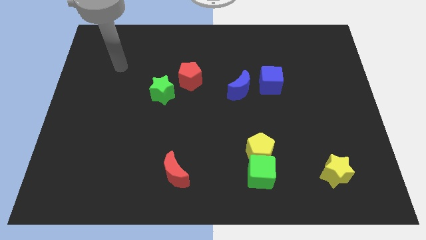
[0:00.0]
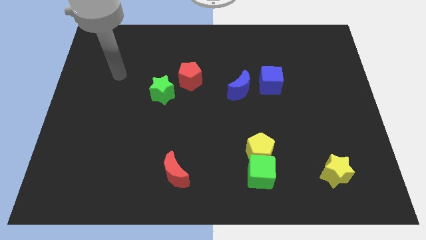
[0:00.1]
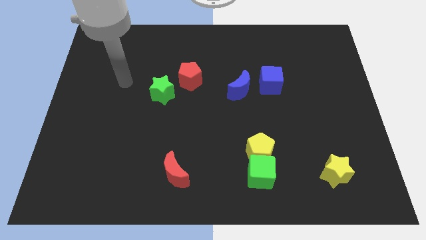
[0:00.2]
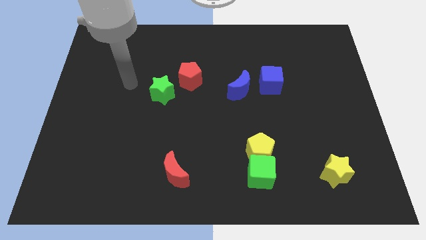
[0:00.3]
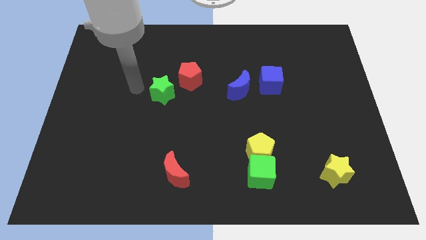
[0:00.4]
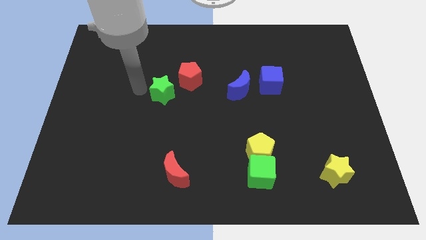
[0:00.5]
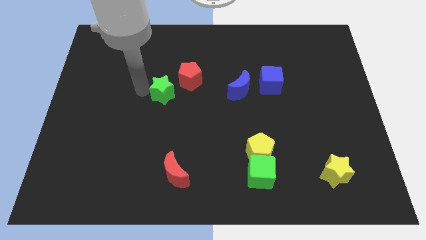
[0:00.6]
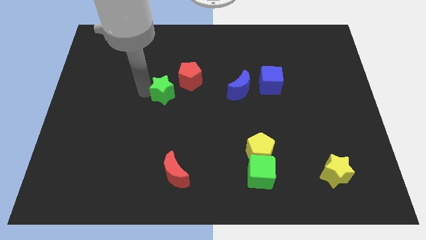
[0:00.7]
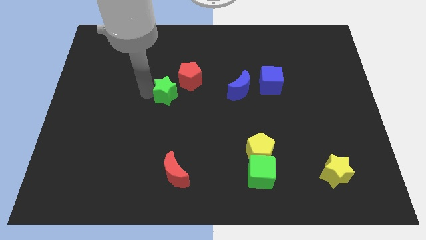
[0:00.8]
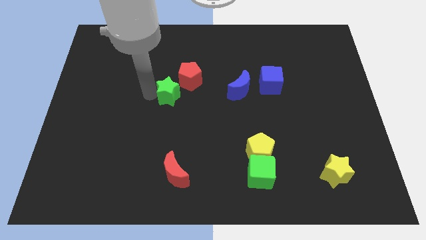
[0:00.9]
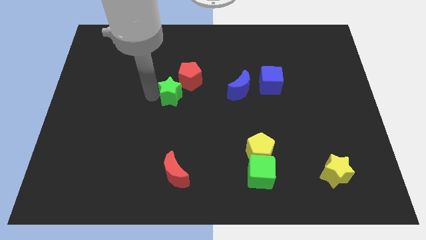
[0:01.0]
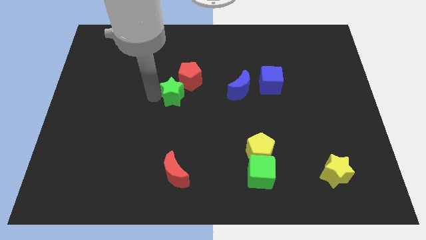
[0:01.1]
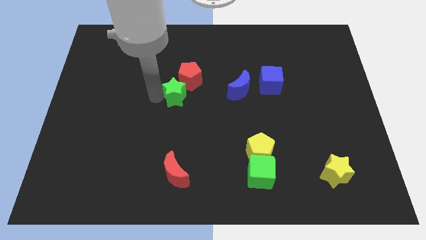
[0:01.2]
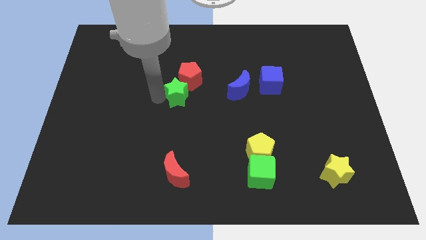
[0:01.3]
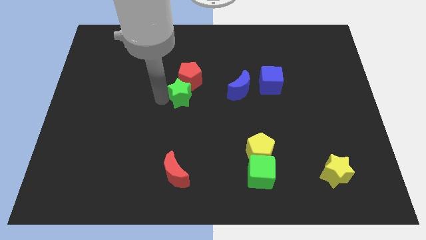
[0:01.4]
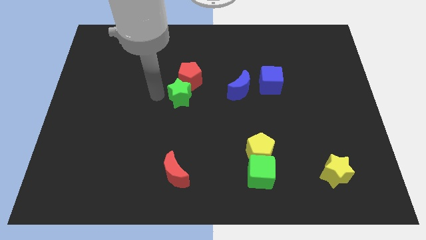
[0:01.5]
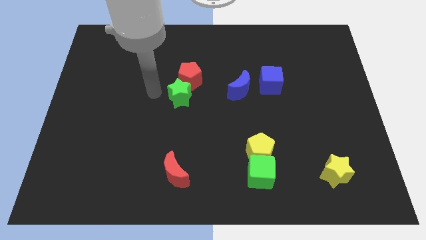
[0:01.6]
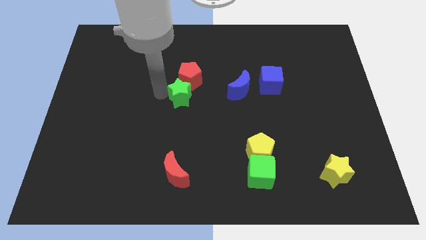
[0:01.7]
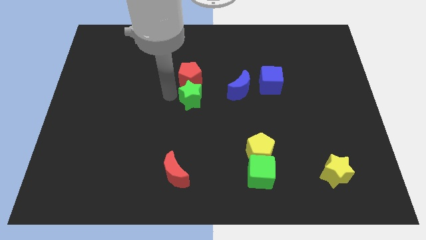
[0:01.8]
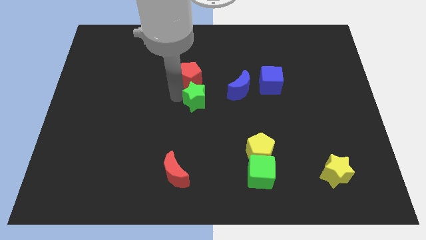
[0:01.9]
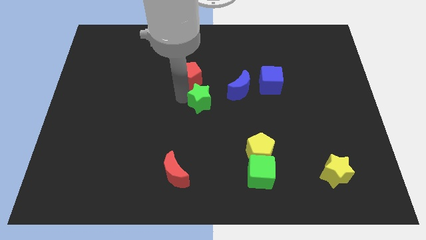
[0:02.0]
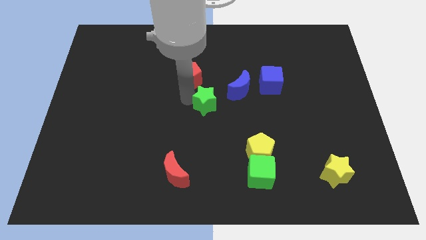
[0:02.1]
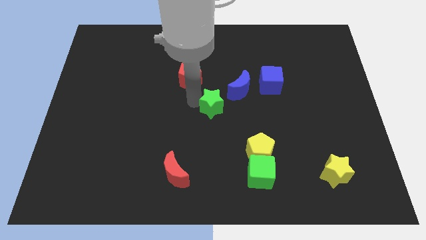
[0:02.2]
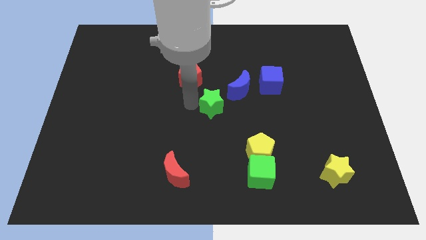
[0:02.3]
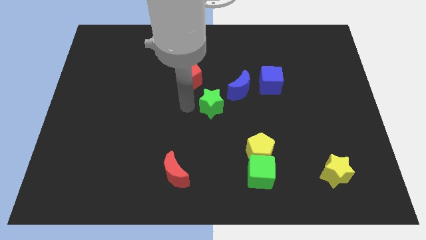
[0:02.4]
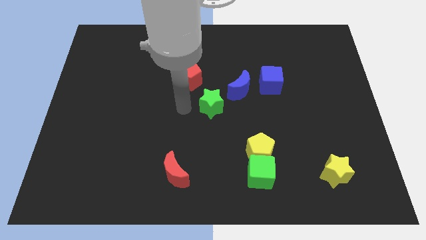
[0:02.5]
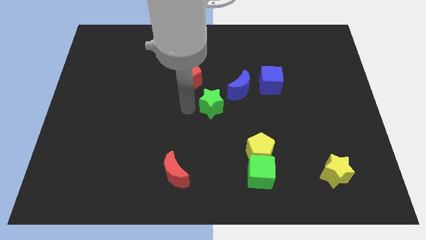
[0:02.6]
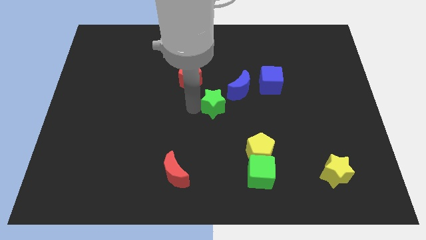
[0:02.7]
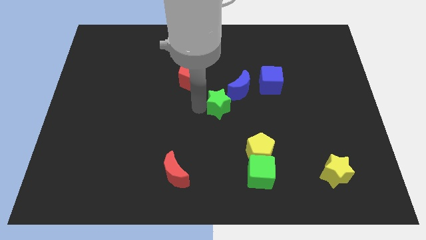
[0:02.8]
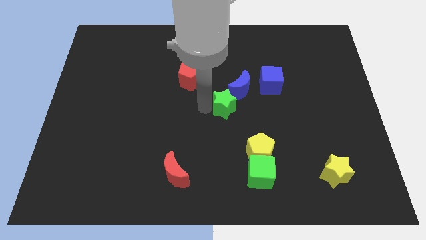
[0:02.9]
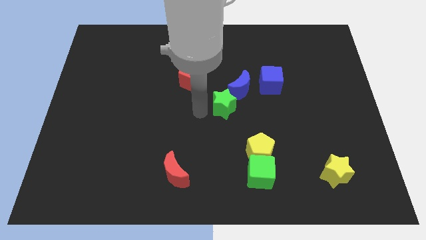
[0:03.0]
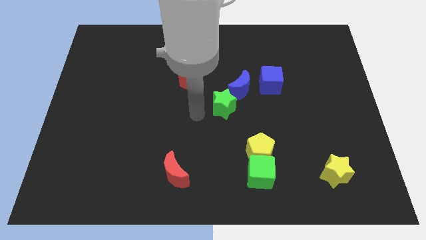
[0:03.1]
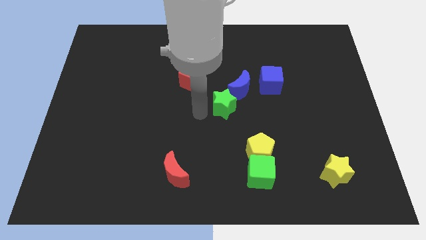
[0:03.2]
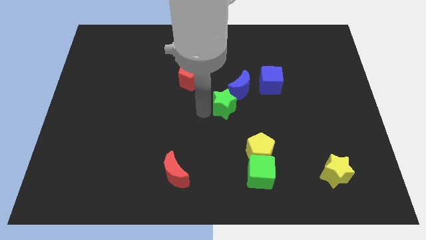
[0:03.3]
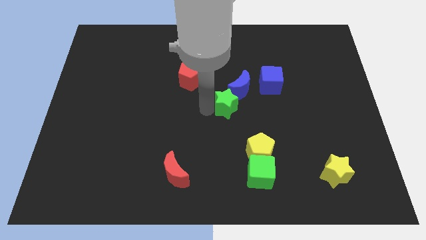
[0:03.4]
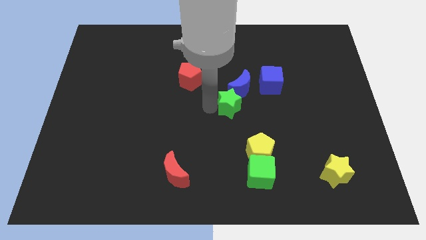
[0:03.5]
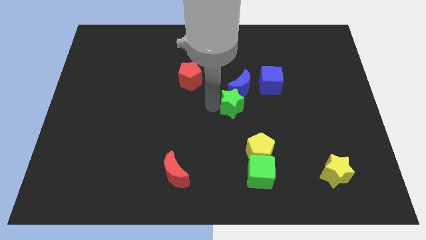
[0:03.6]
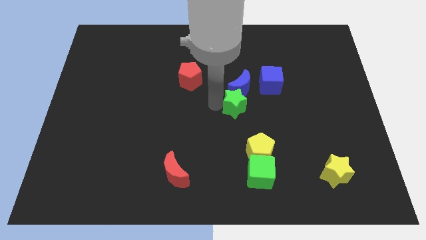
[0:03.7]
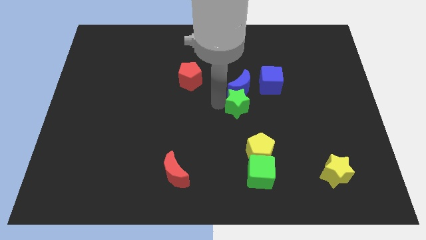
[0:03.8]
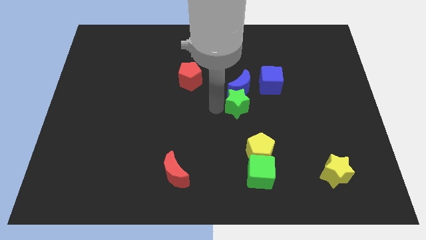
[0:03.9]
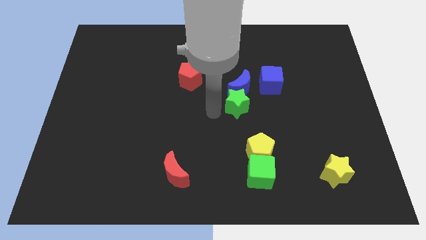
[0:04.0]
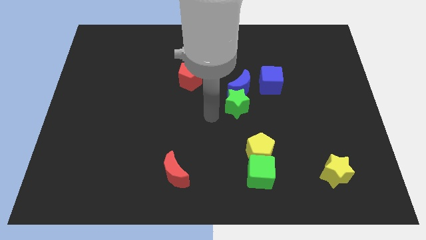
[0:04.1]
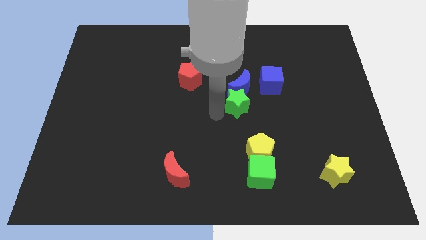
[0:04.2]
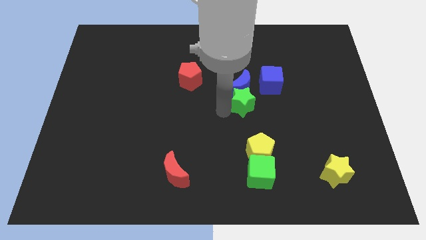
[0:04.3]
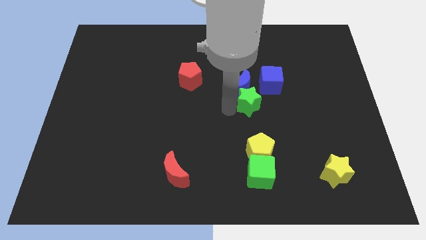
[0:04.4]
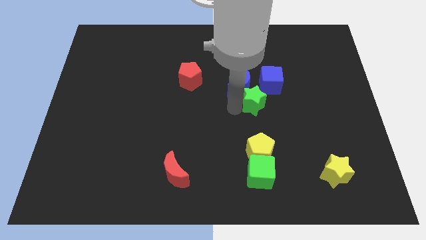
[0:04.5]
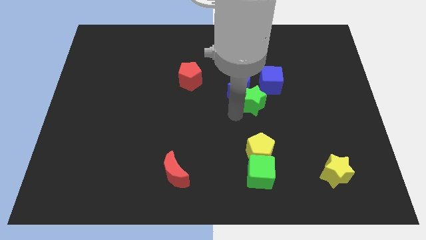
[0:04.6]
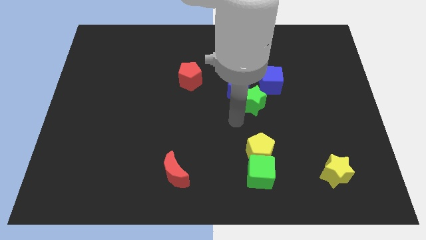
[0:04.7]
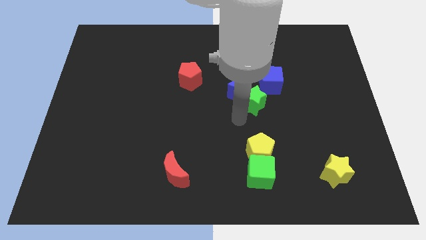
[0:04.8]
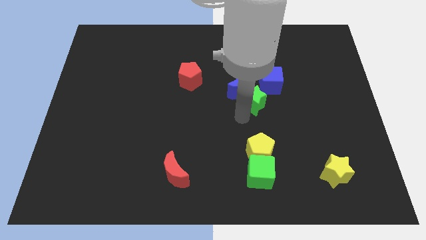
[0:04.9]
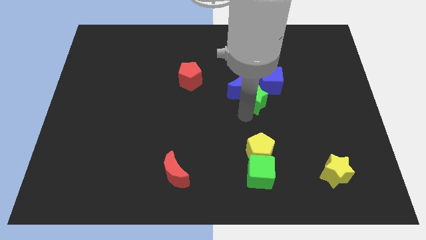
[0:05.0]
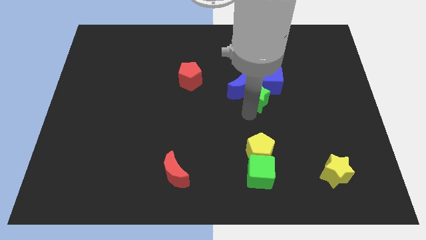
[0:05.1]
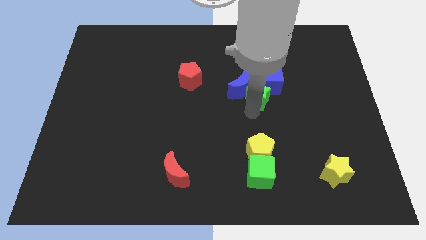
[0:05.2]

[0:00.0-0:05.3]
push the green star close to the blue cube

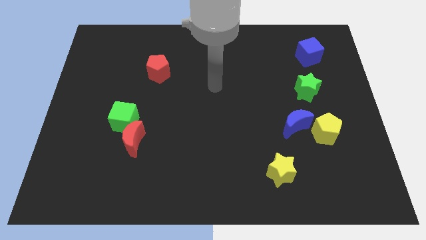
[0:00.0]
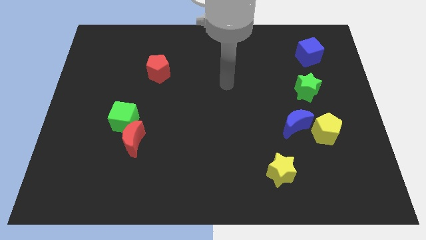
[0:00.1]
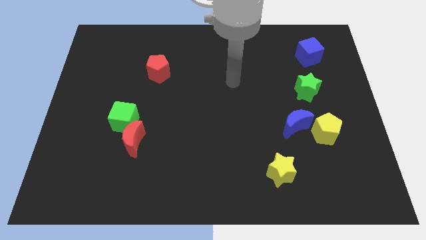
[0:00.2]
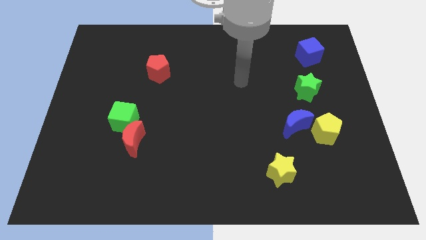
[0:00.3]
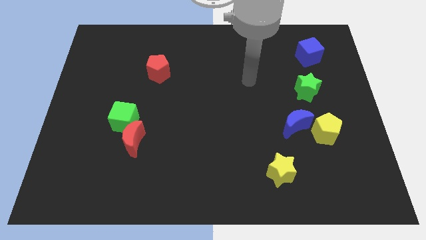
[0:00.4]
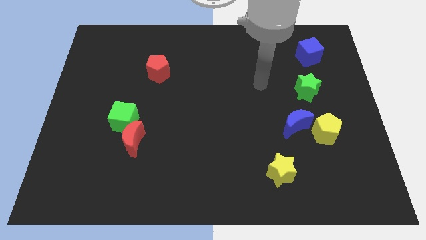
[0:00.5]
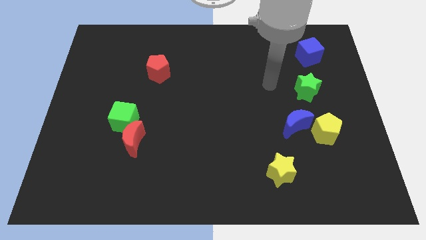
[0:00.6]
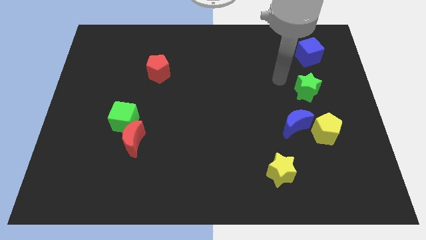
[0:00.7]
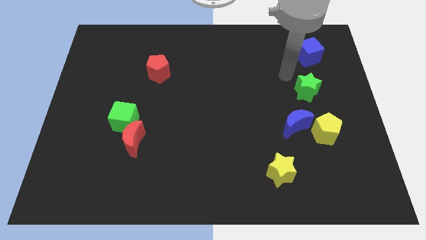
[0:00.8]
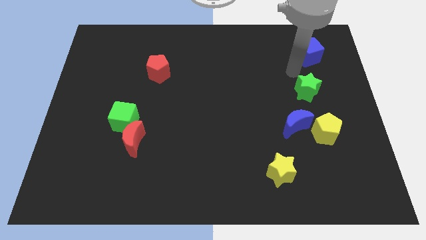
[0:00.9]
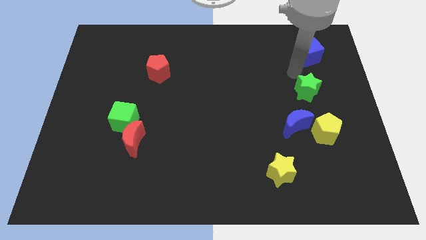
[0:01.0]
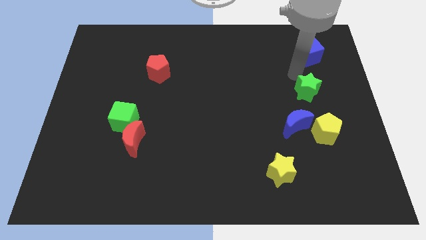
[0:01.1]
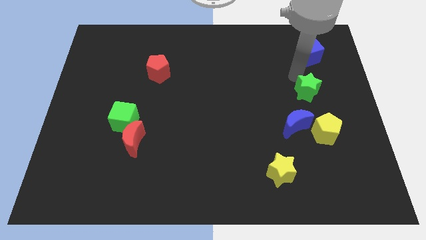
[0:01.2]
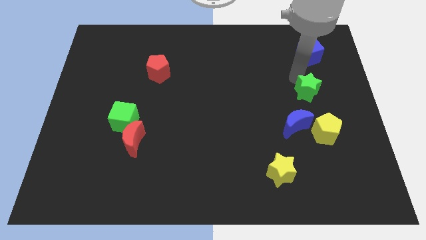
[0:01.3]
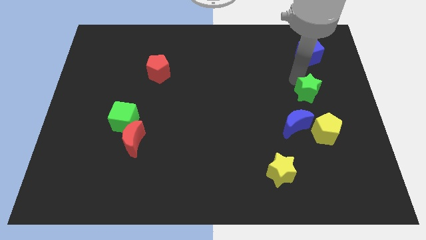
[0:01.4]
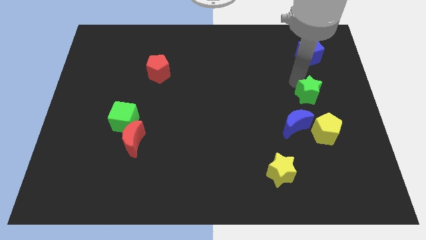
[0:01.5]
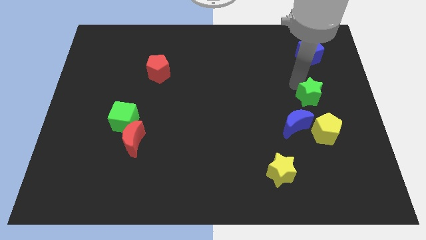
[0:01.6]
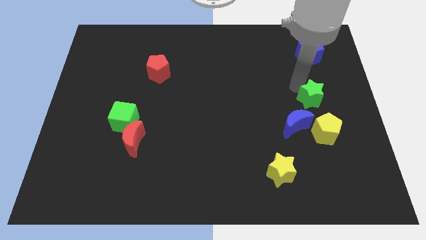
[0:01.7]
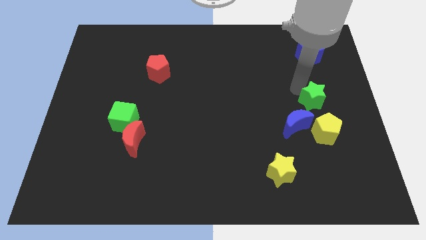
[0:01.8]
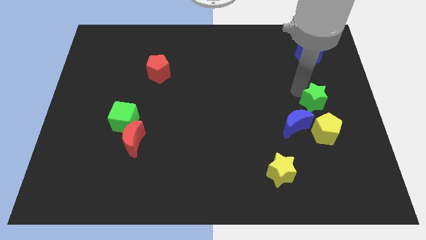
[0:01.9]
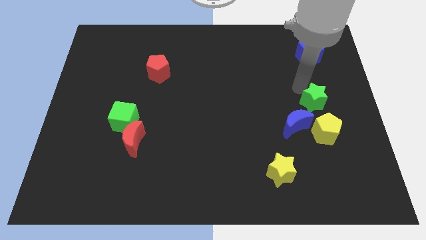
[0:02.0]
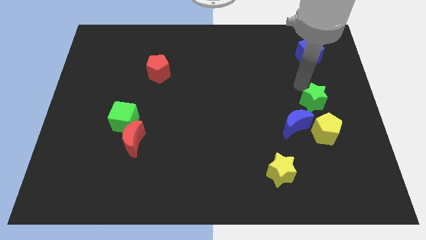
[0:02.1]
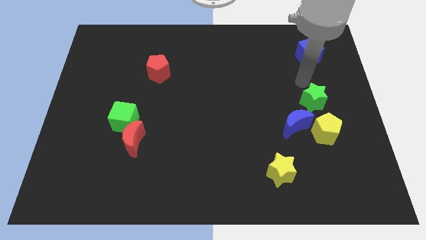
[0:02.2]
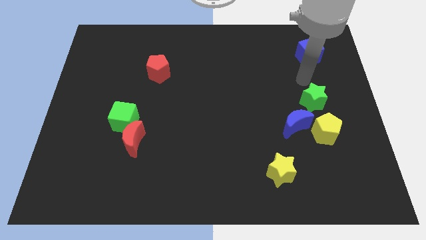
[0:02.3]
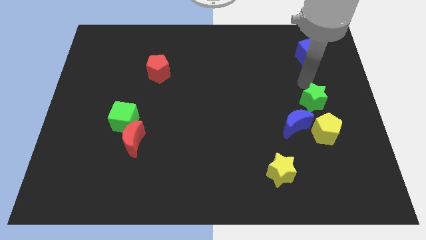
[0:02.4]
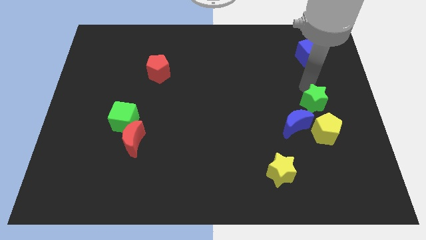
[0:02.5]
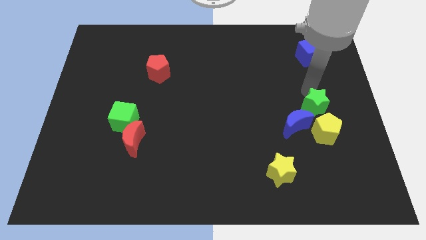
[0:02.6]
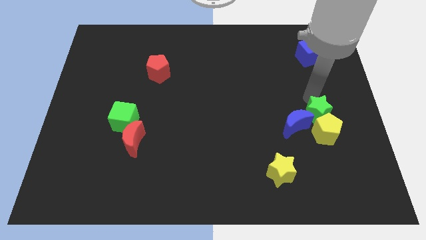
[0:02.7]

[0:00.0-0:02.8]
push the green star close to the yellow pentagon

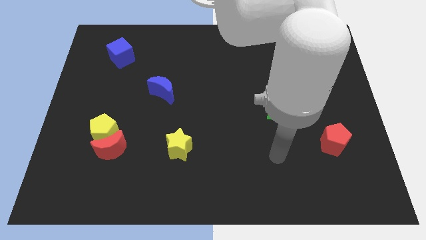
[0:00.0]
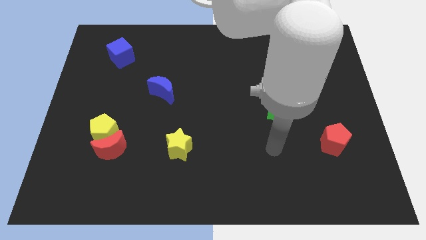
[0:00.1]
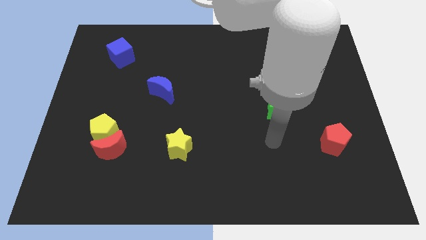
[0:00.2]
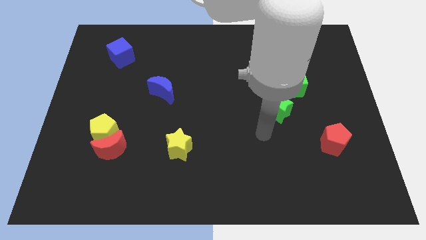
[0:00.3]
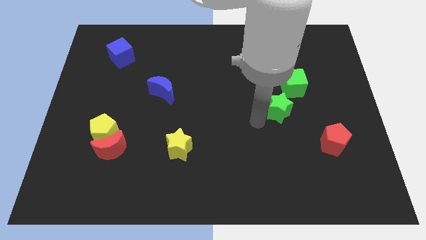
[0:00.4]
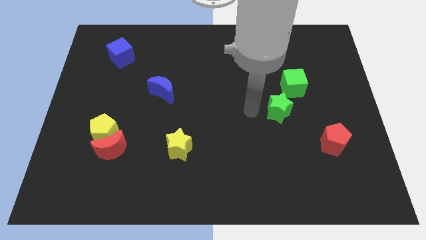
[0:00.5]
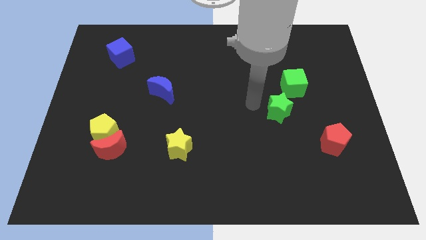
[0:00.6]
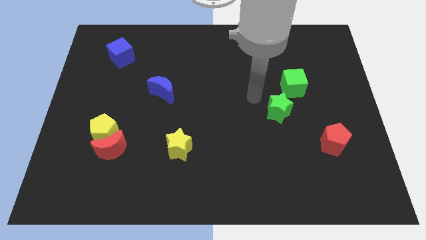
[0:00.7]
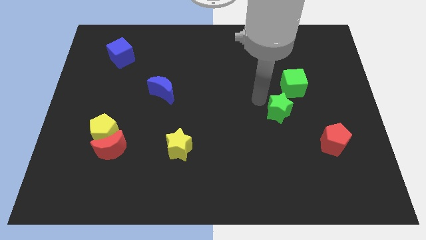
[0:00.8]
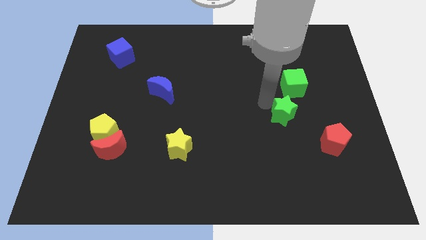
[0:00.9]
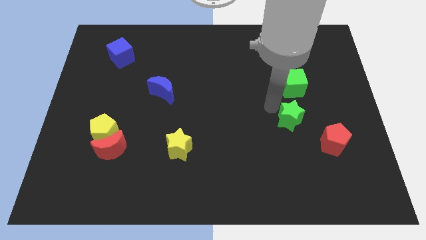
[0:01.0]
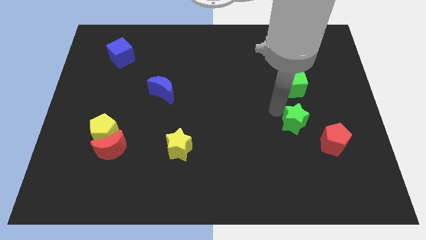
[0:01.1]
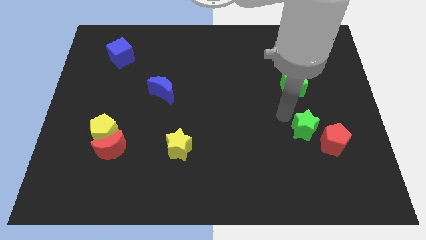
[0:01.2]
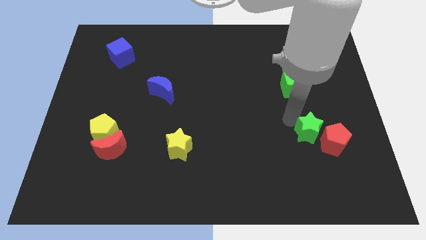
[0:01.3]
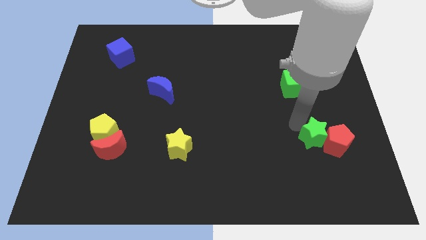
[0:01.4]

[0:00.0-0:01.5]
slide the green star close to the red pentagon
